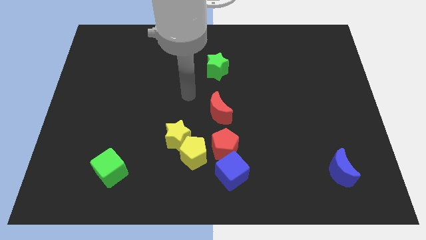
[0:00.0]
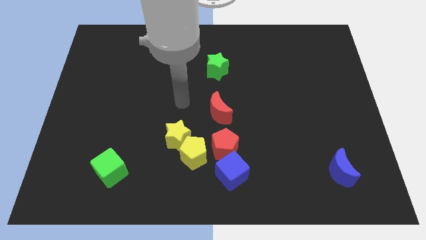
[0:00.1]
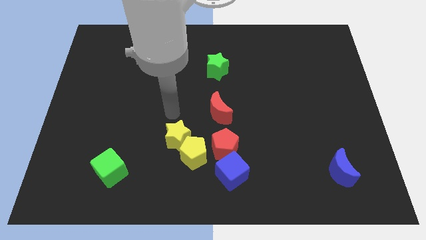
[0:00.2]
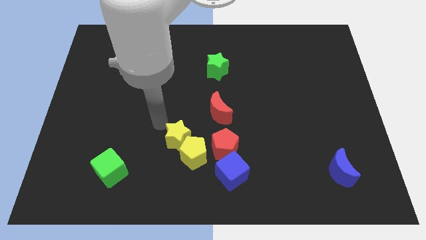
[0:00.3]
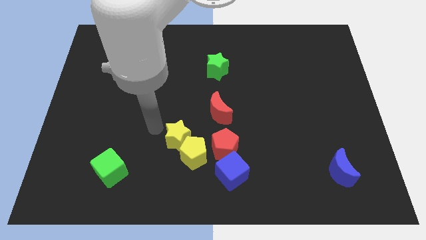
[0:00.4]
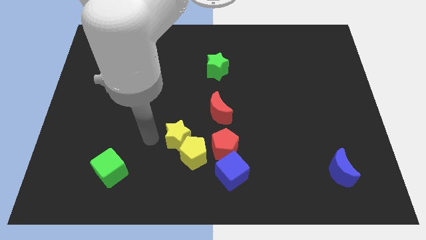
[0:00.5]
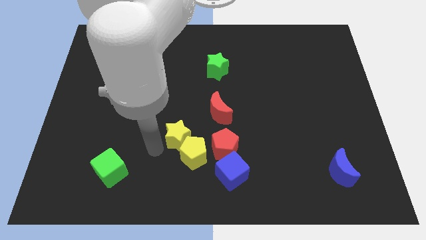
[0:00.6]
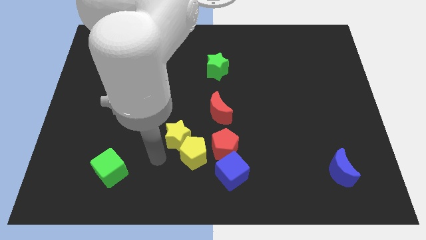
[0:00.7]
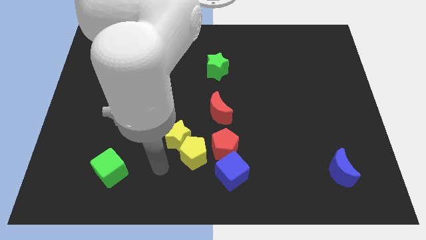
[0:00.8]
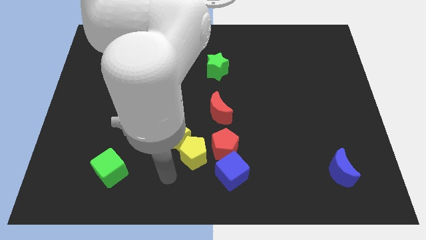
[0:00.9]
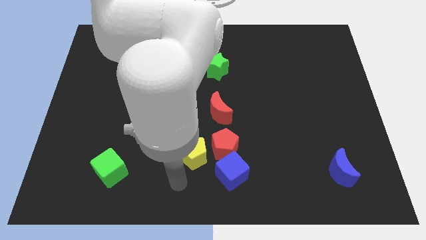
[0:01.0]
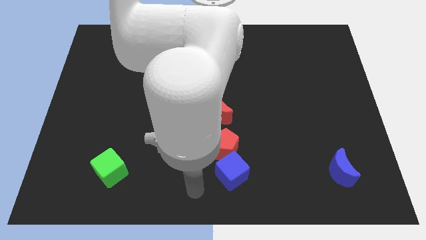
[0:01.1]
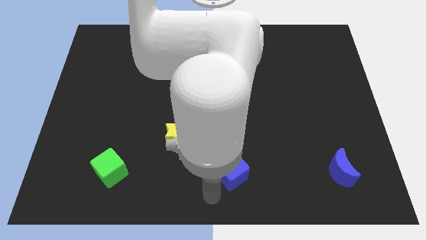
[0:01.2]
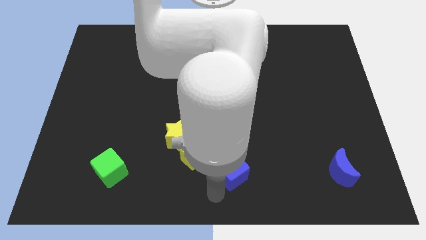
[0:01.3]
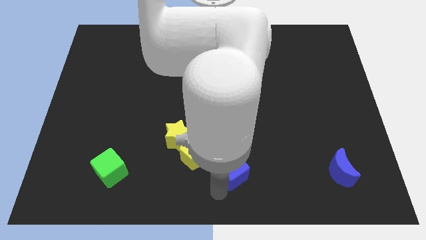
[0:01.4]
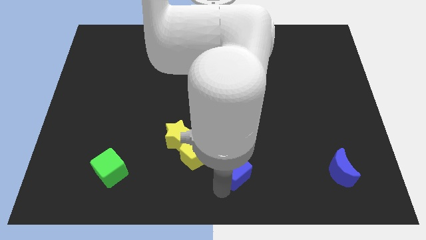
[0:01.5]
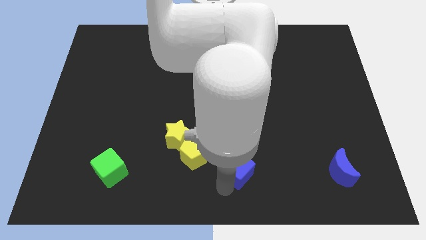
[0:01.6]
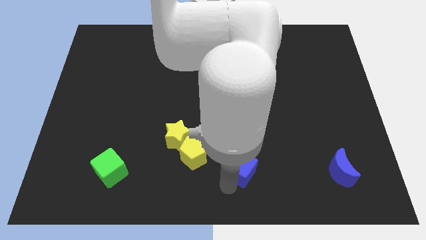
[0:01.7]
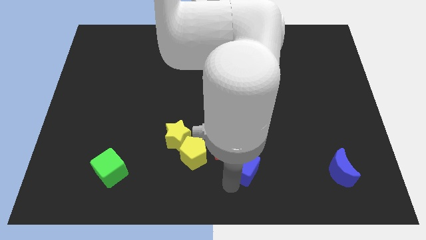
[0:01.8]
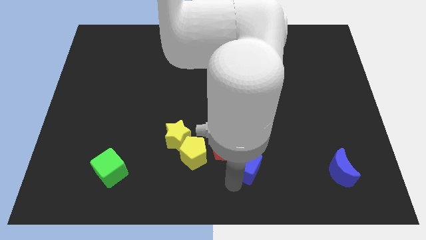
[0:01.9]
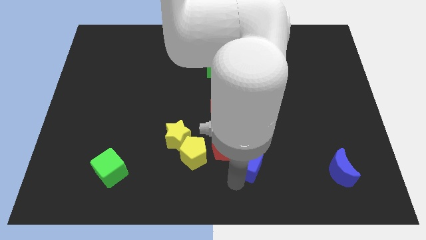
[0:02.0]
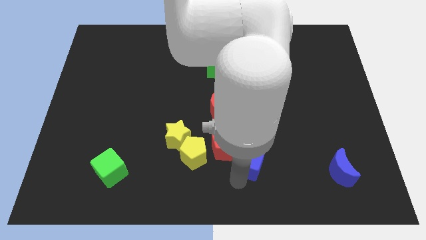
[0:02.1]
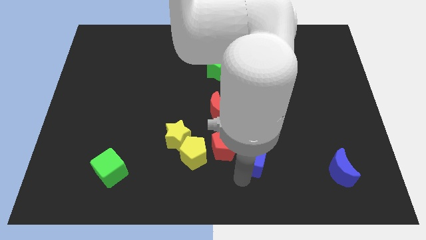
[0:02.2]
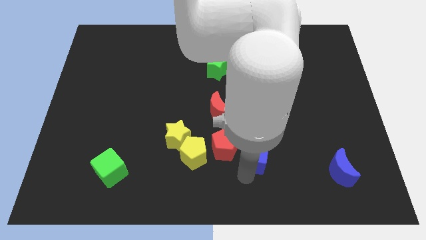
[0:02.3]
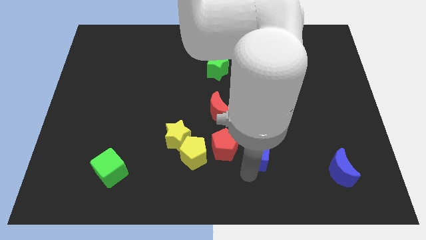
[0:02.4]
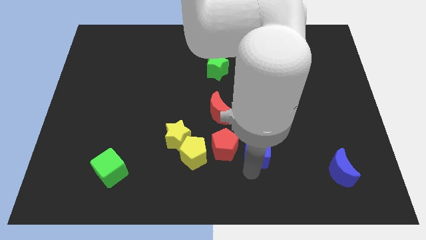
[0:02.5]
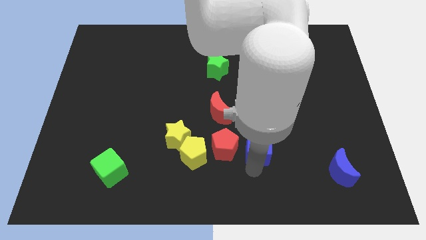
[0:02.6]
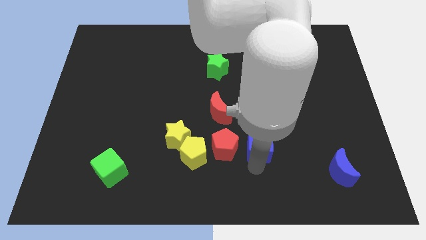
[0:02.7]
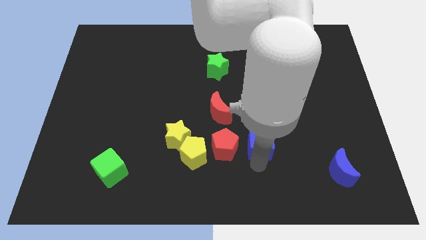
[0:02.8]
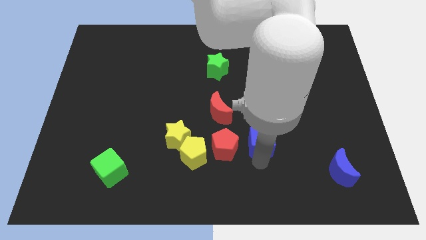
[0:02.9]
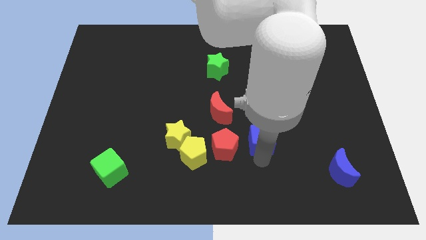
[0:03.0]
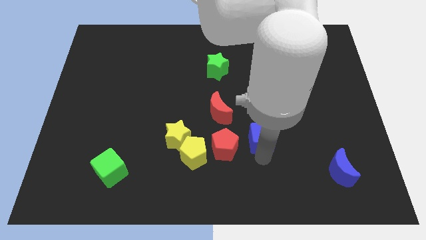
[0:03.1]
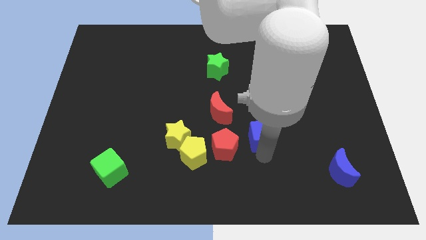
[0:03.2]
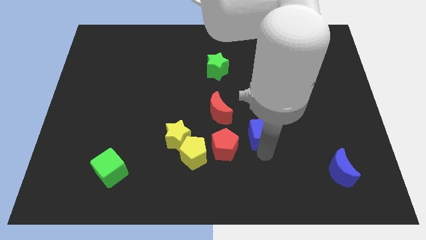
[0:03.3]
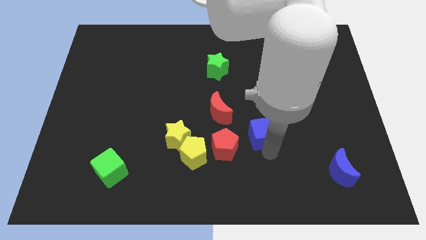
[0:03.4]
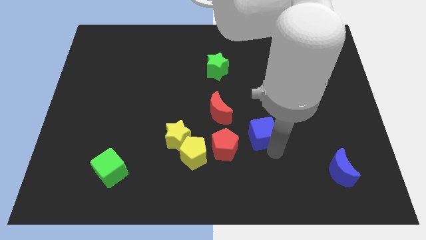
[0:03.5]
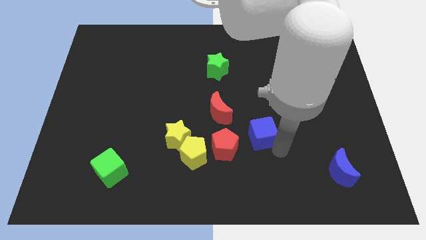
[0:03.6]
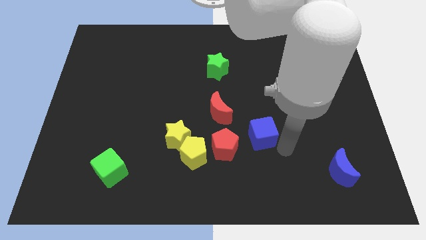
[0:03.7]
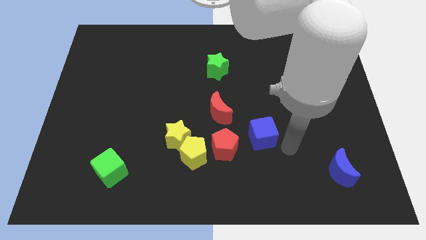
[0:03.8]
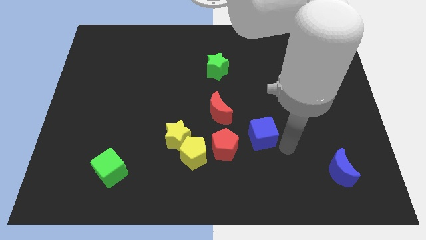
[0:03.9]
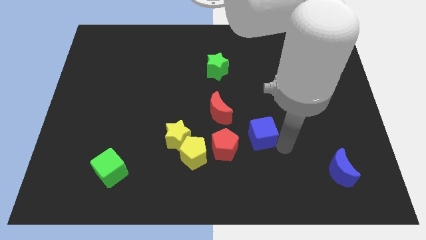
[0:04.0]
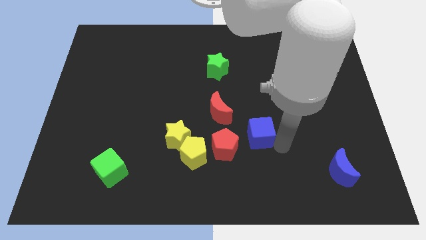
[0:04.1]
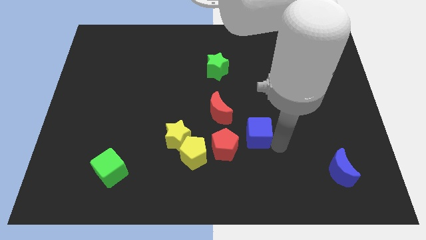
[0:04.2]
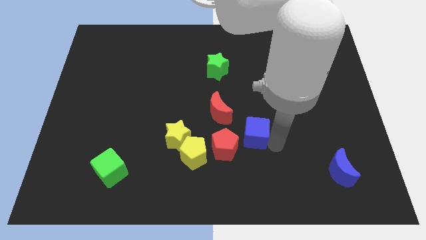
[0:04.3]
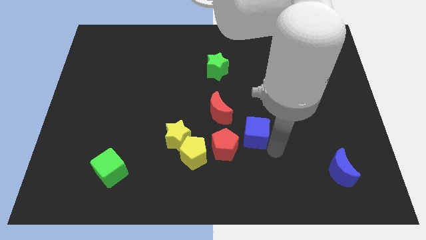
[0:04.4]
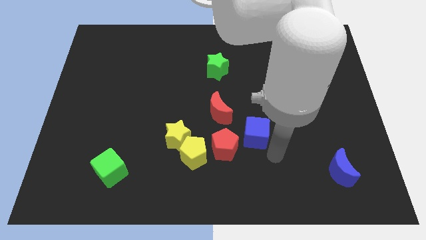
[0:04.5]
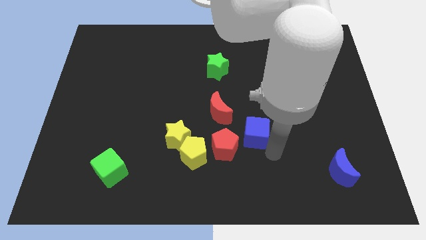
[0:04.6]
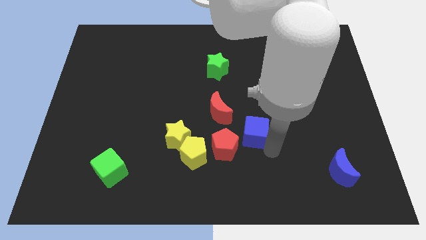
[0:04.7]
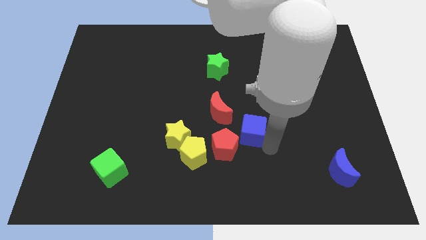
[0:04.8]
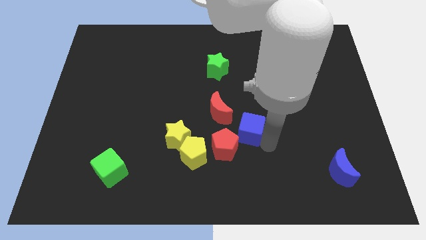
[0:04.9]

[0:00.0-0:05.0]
slide the blue cube to the middle
